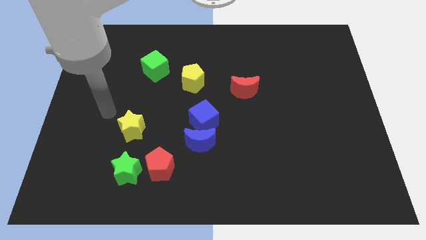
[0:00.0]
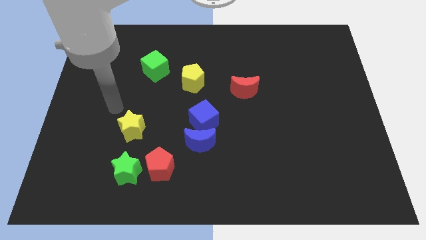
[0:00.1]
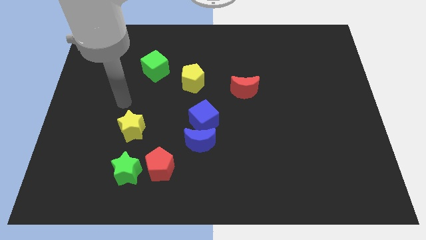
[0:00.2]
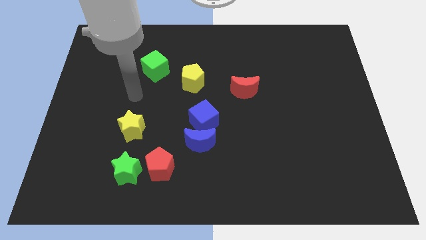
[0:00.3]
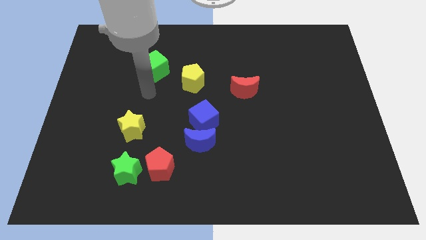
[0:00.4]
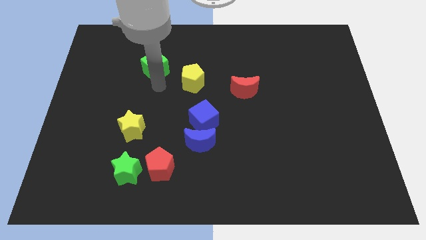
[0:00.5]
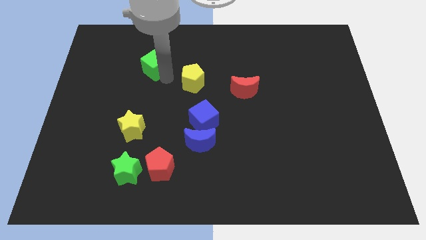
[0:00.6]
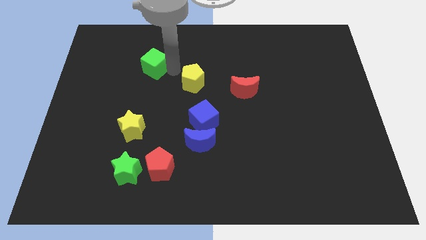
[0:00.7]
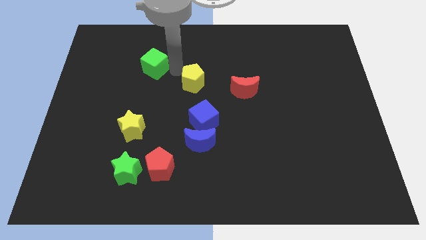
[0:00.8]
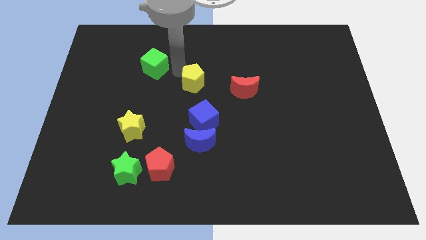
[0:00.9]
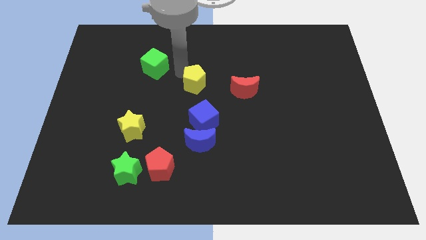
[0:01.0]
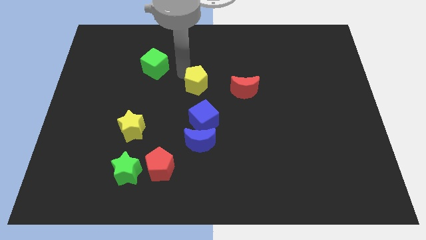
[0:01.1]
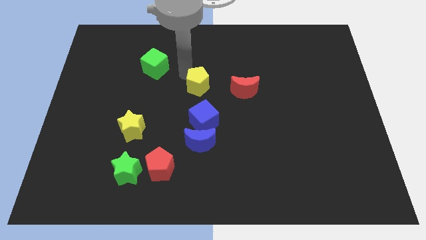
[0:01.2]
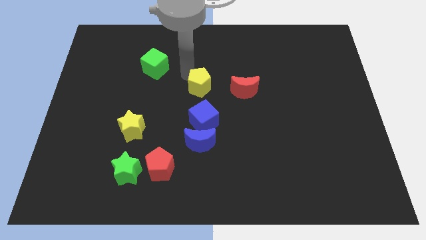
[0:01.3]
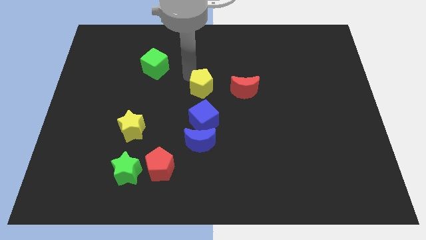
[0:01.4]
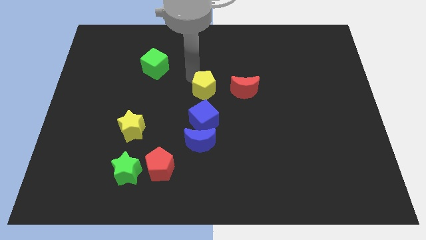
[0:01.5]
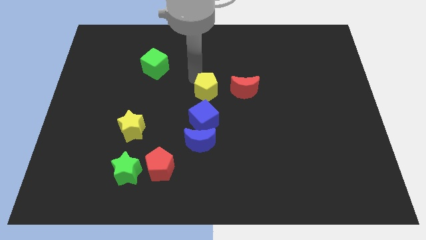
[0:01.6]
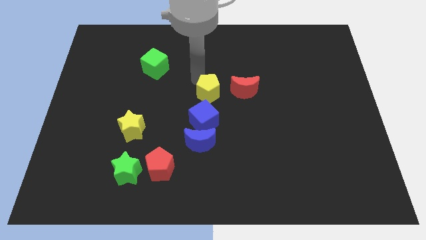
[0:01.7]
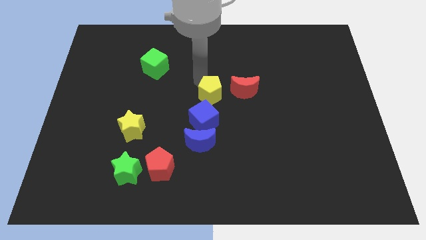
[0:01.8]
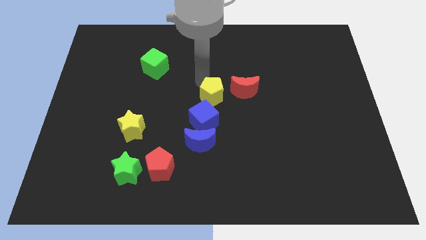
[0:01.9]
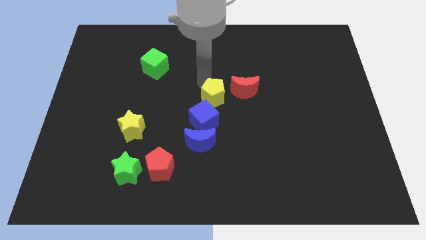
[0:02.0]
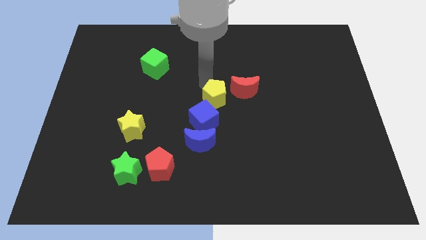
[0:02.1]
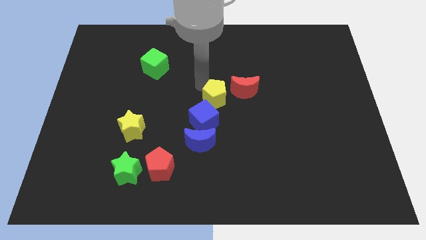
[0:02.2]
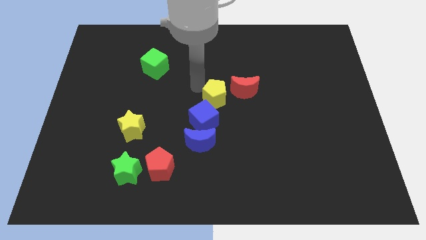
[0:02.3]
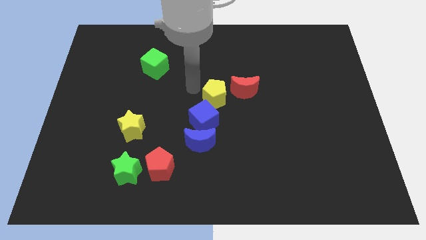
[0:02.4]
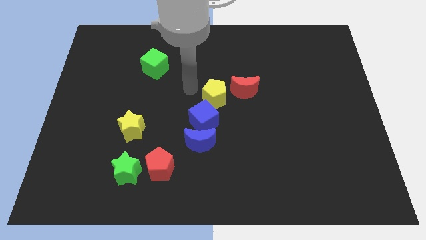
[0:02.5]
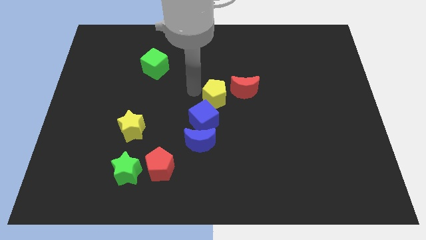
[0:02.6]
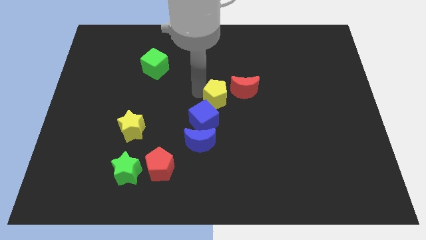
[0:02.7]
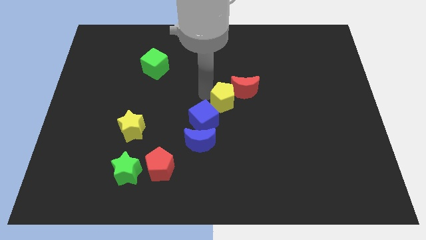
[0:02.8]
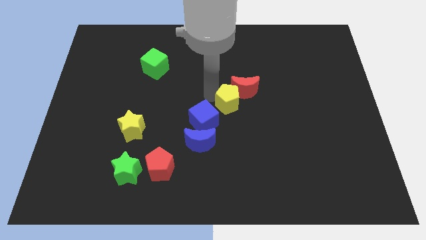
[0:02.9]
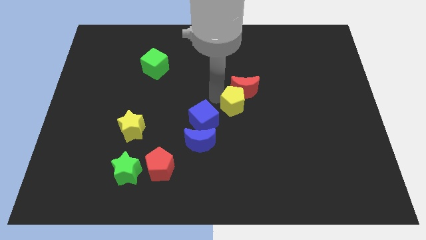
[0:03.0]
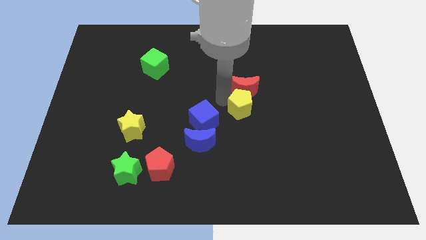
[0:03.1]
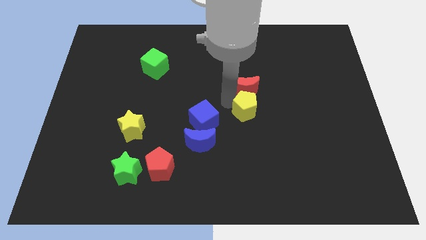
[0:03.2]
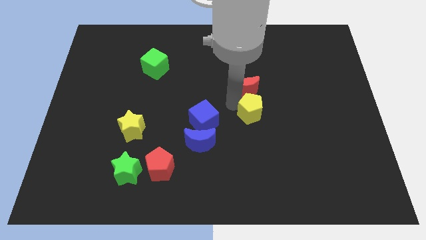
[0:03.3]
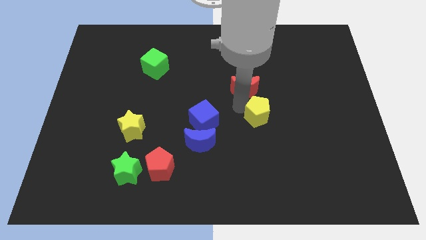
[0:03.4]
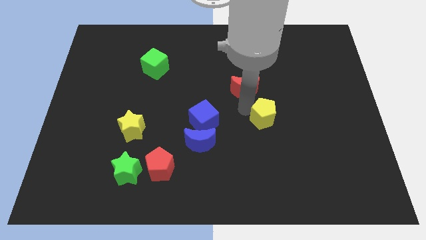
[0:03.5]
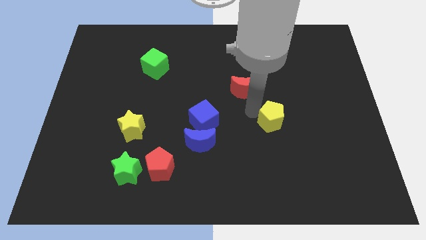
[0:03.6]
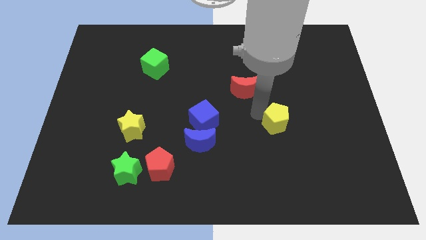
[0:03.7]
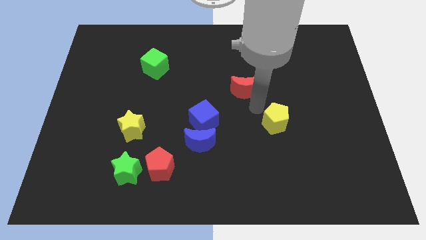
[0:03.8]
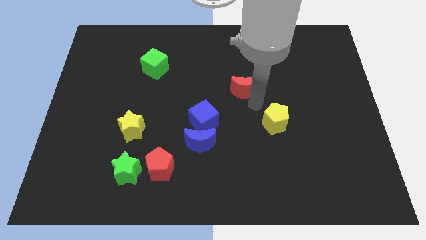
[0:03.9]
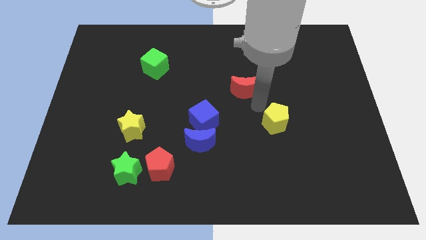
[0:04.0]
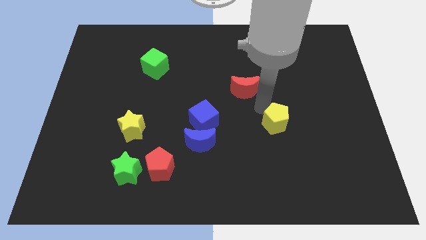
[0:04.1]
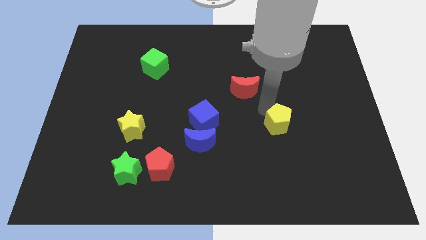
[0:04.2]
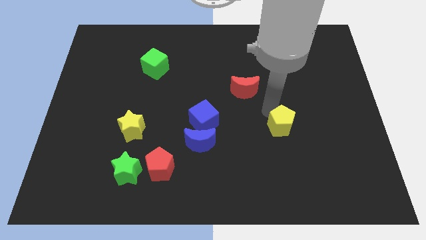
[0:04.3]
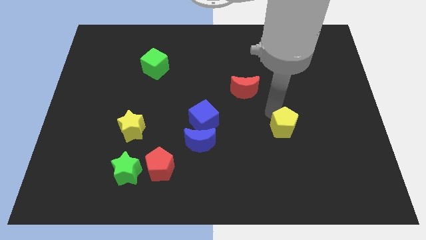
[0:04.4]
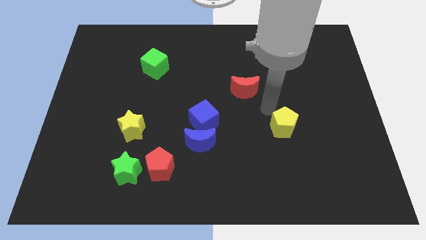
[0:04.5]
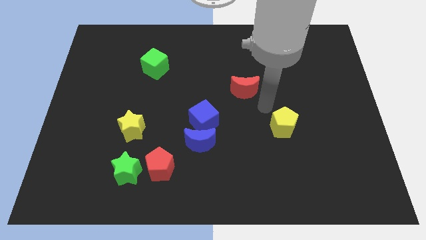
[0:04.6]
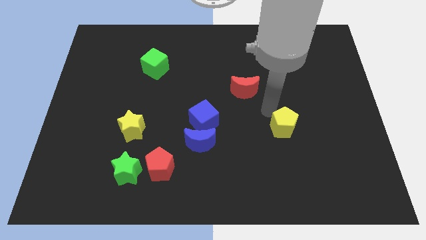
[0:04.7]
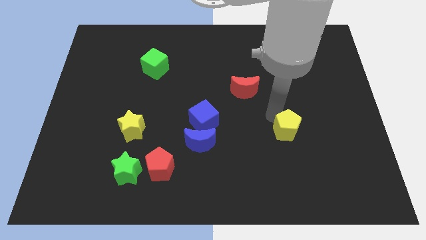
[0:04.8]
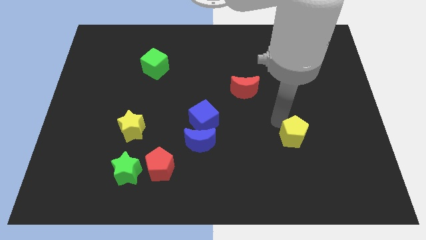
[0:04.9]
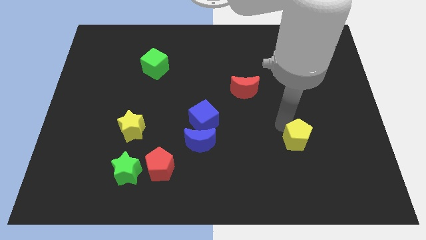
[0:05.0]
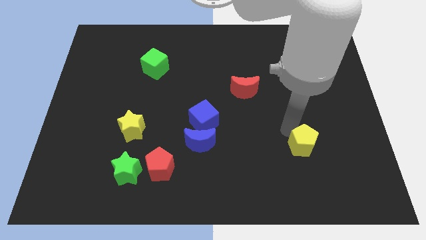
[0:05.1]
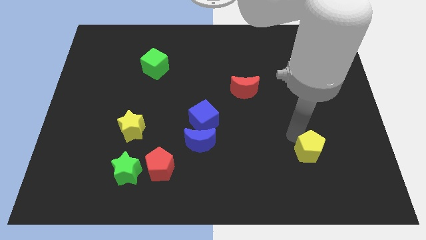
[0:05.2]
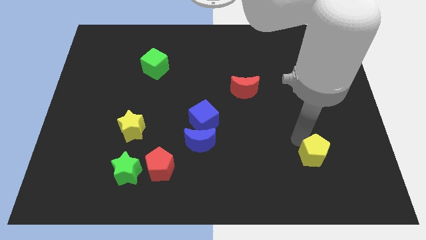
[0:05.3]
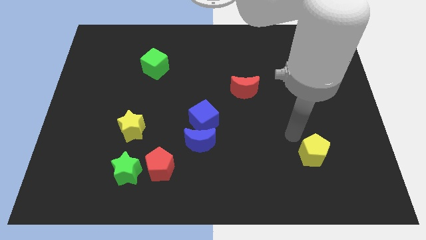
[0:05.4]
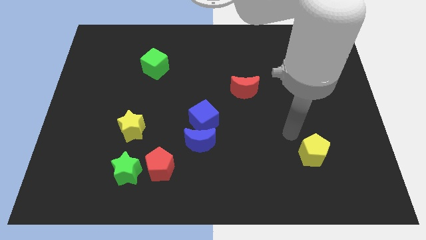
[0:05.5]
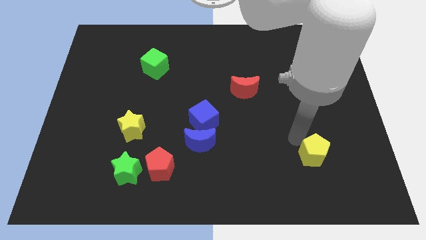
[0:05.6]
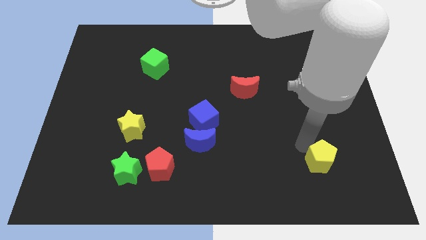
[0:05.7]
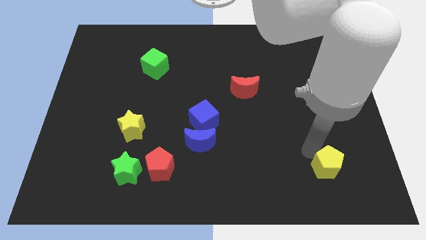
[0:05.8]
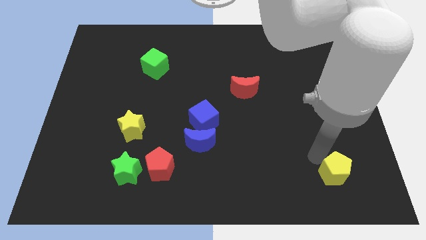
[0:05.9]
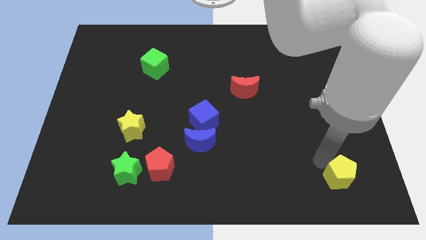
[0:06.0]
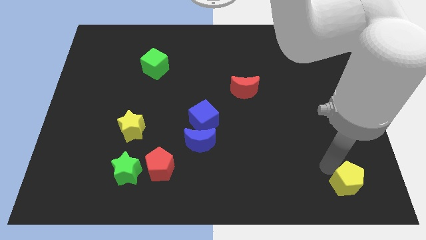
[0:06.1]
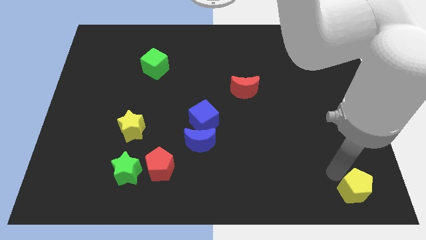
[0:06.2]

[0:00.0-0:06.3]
push the yellow pentagon to the bottom right of the board
